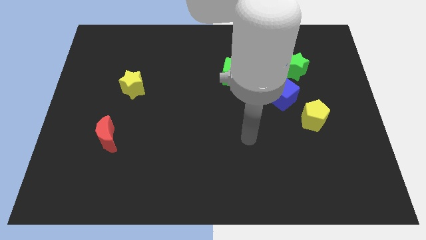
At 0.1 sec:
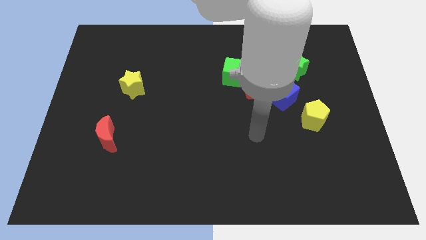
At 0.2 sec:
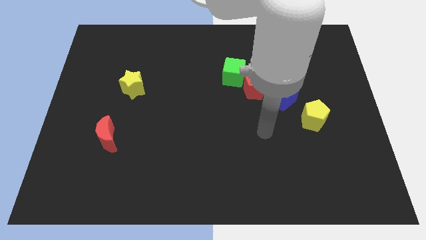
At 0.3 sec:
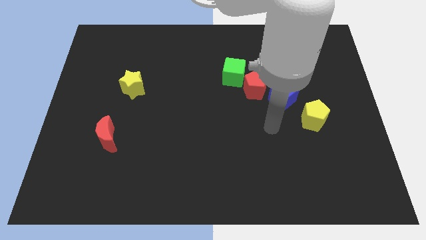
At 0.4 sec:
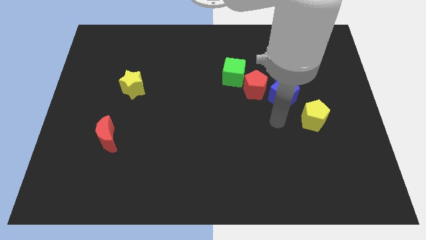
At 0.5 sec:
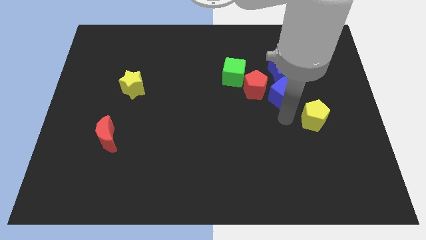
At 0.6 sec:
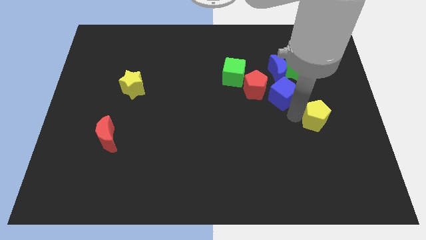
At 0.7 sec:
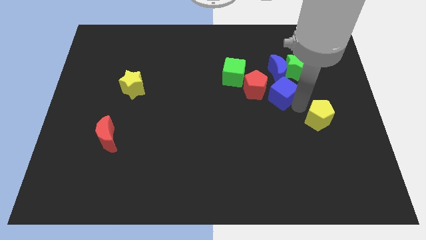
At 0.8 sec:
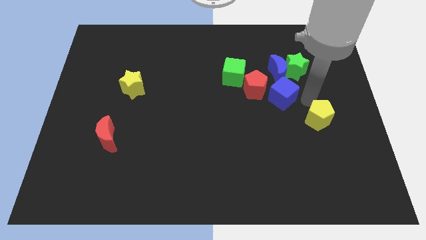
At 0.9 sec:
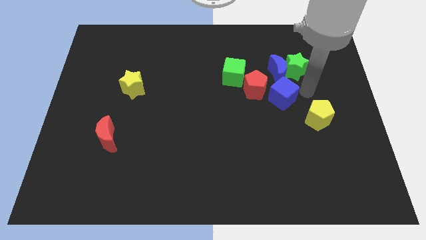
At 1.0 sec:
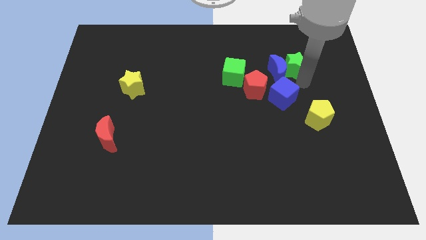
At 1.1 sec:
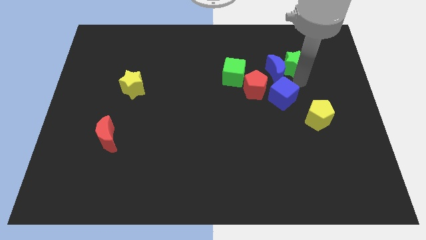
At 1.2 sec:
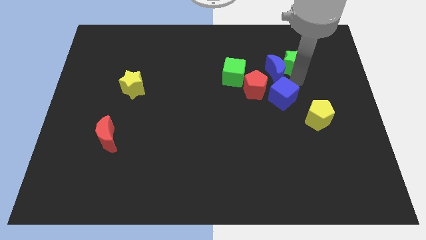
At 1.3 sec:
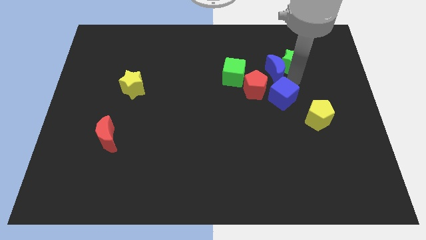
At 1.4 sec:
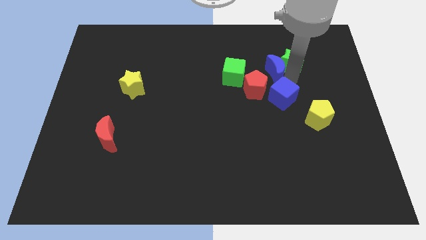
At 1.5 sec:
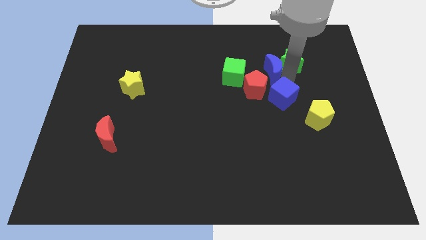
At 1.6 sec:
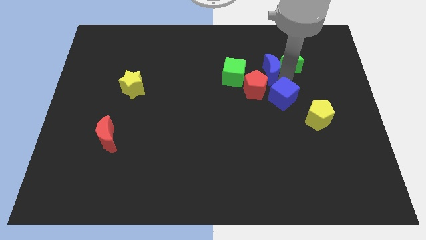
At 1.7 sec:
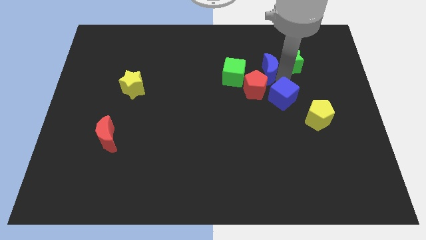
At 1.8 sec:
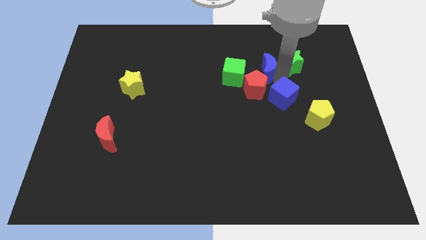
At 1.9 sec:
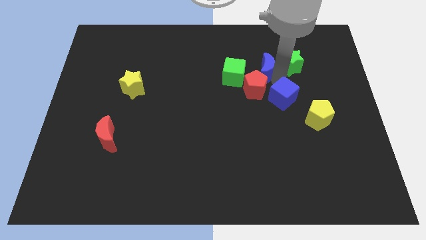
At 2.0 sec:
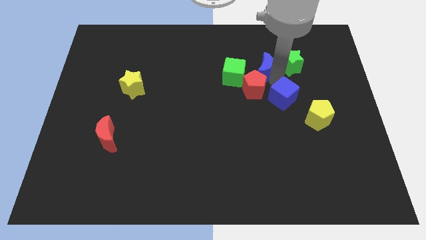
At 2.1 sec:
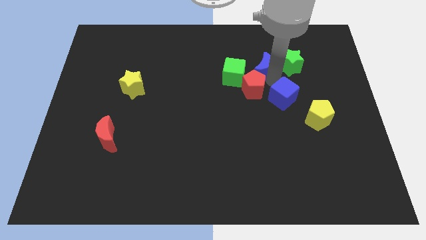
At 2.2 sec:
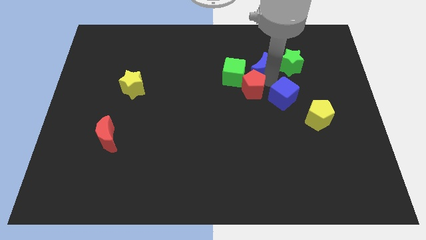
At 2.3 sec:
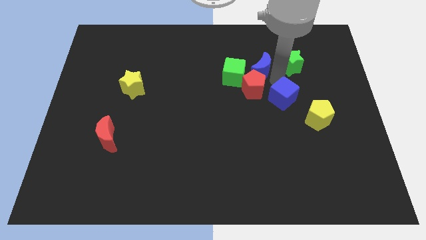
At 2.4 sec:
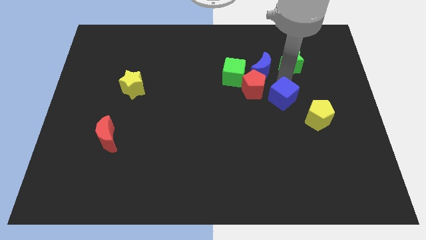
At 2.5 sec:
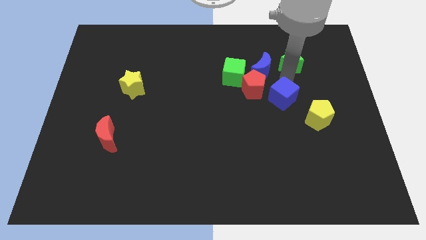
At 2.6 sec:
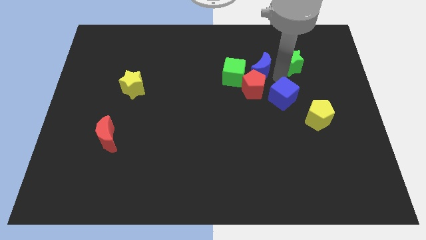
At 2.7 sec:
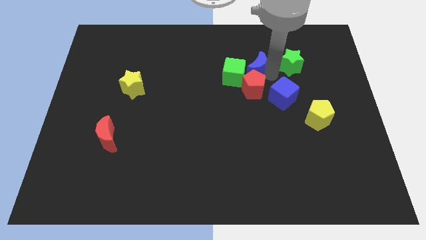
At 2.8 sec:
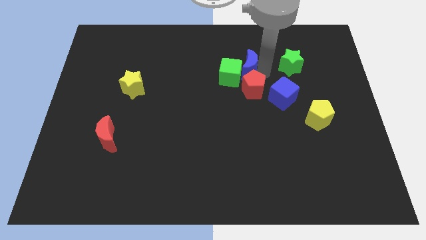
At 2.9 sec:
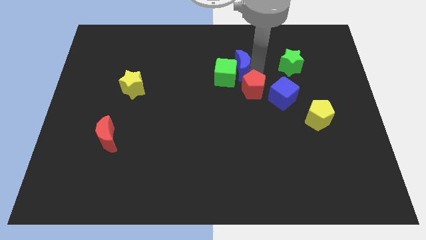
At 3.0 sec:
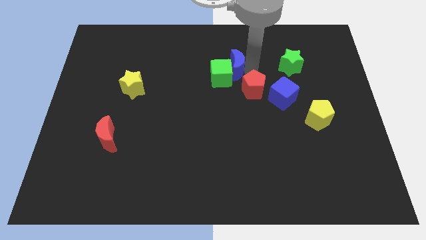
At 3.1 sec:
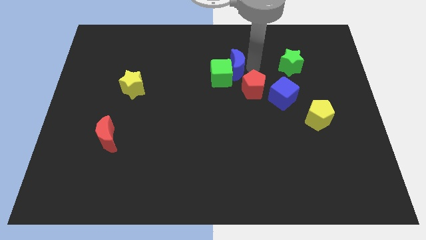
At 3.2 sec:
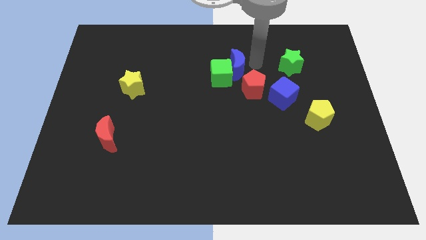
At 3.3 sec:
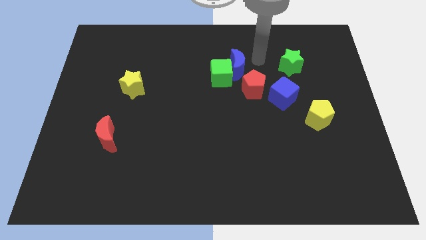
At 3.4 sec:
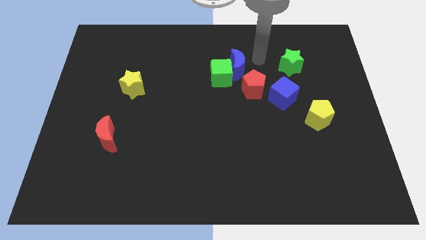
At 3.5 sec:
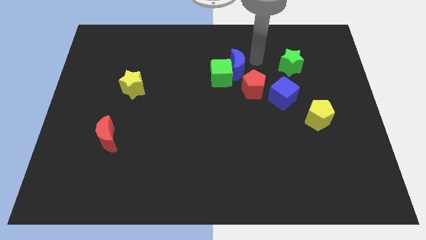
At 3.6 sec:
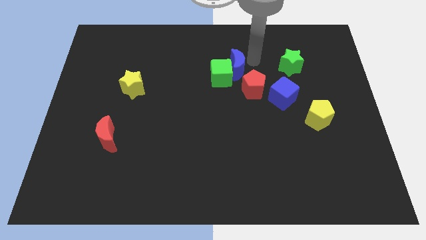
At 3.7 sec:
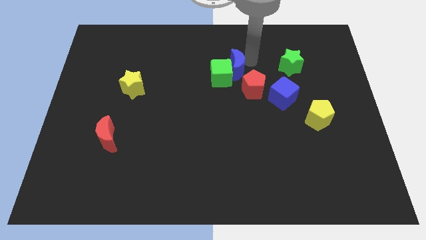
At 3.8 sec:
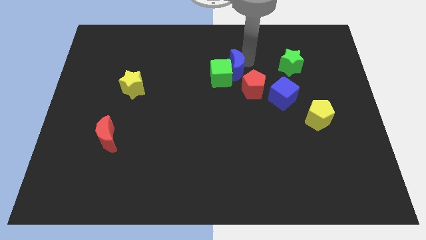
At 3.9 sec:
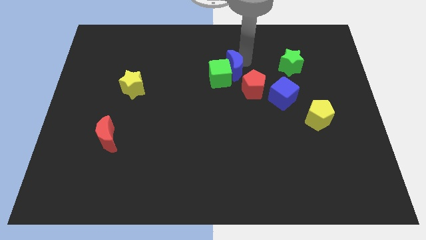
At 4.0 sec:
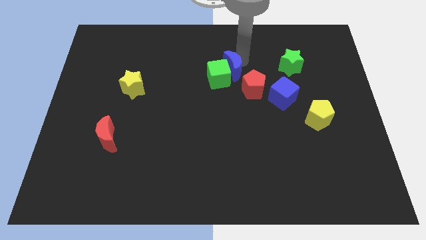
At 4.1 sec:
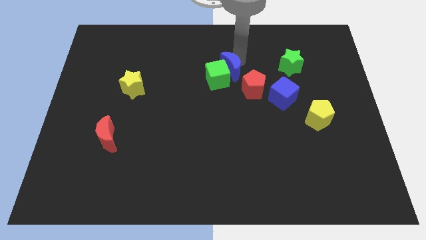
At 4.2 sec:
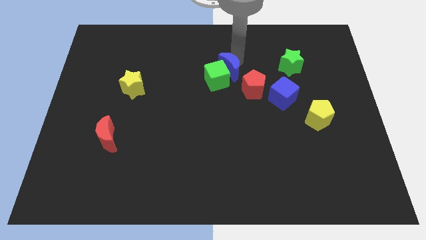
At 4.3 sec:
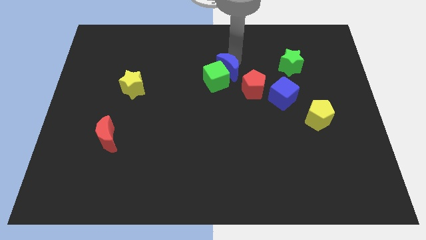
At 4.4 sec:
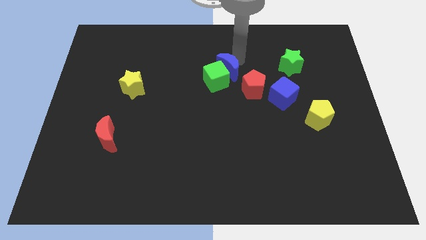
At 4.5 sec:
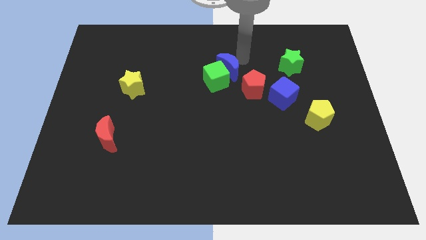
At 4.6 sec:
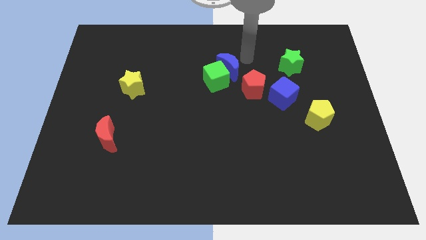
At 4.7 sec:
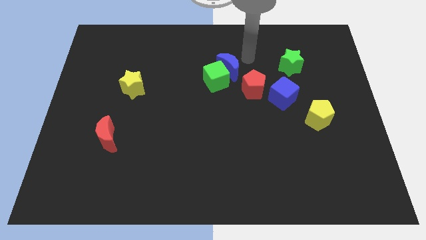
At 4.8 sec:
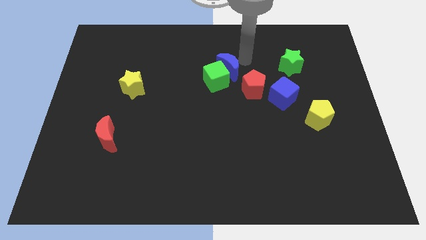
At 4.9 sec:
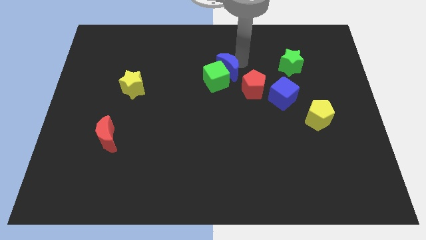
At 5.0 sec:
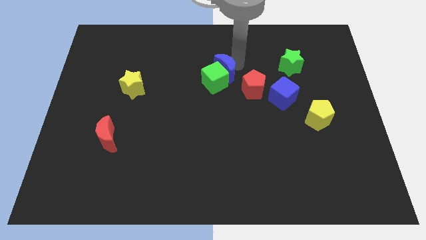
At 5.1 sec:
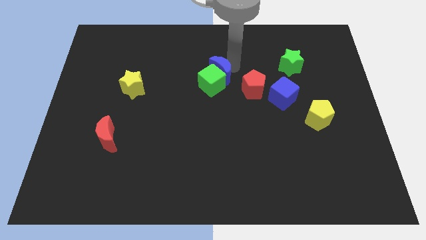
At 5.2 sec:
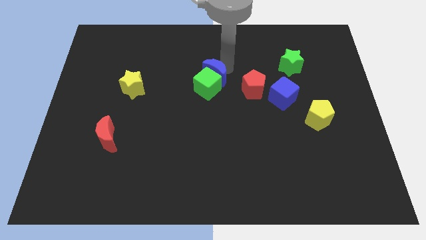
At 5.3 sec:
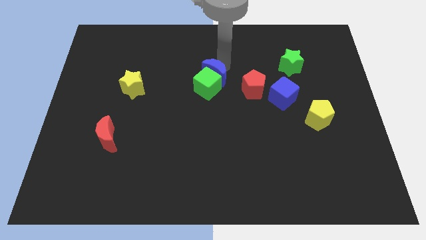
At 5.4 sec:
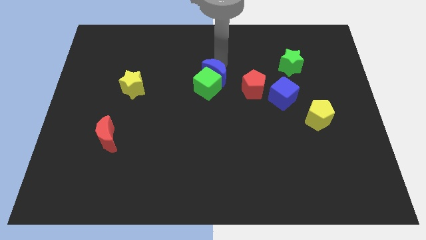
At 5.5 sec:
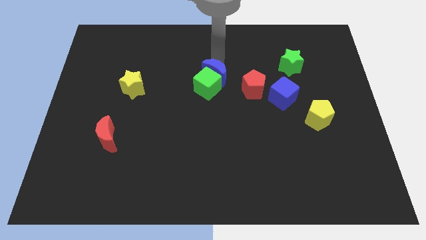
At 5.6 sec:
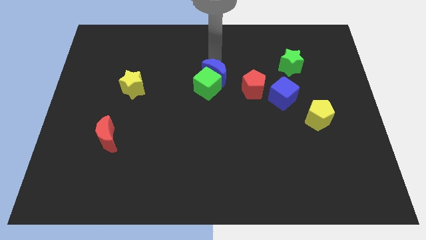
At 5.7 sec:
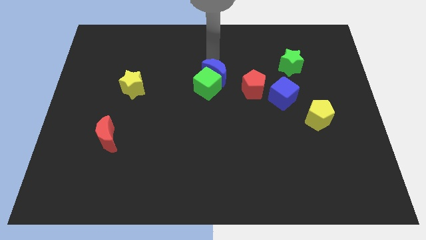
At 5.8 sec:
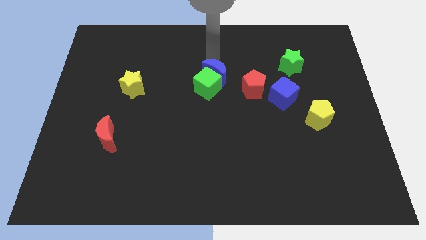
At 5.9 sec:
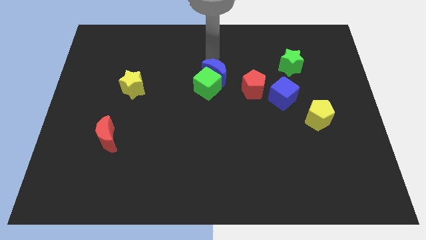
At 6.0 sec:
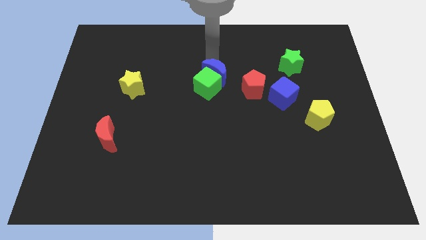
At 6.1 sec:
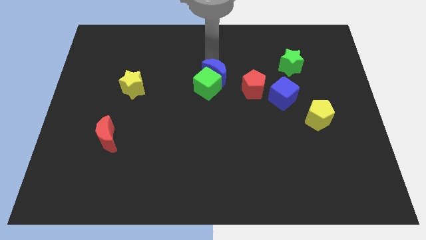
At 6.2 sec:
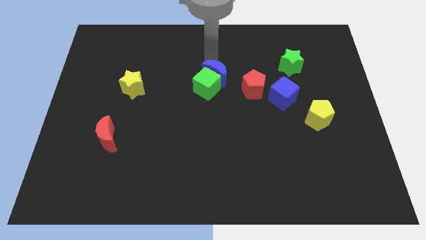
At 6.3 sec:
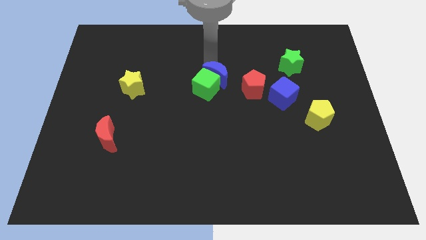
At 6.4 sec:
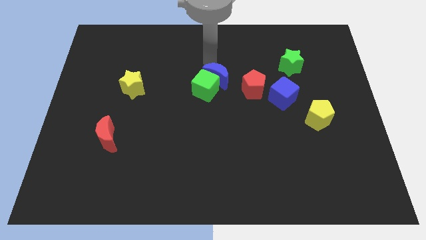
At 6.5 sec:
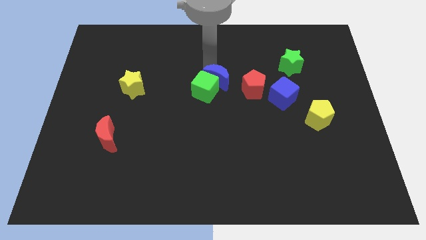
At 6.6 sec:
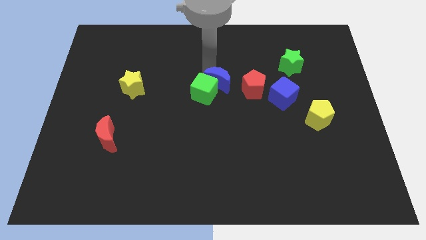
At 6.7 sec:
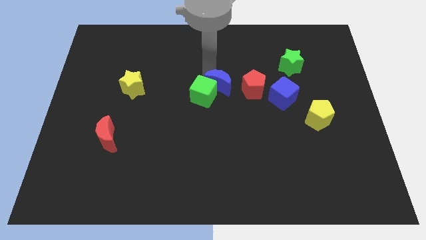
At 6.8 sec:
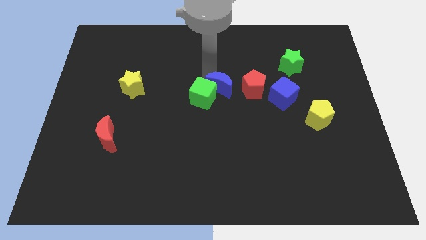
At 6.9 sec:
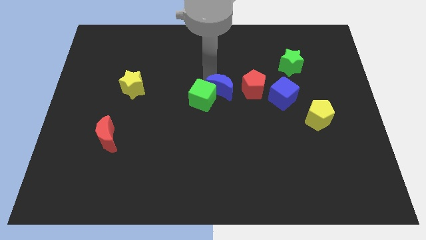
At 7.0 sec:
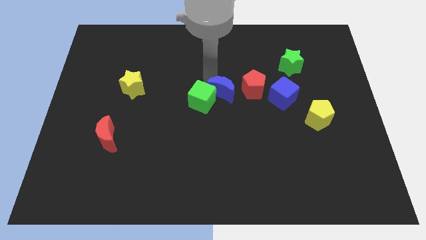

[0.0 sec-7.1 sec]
move the blue moon to the bottom left side of the red pentagon
